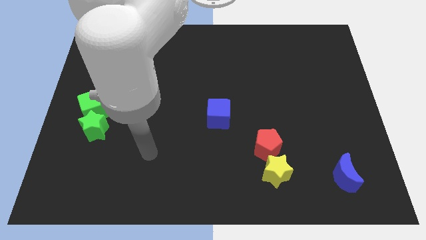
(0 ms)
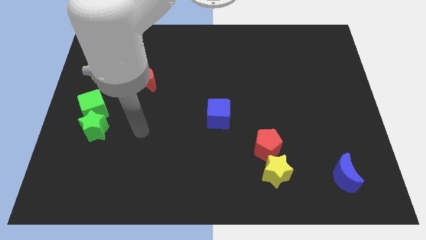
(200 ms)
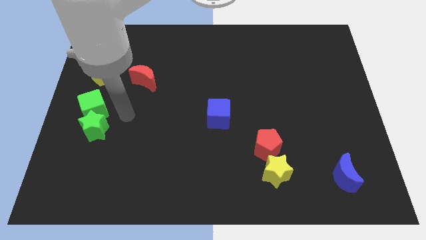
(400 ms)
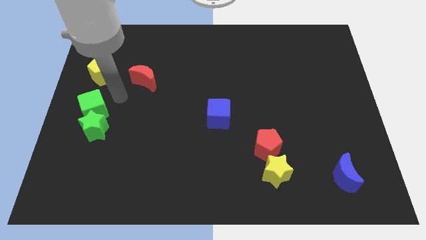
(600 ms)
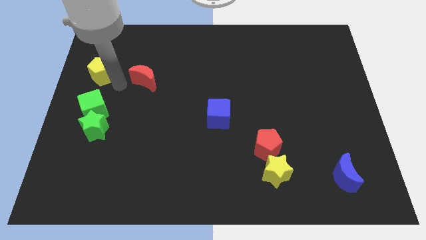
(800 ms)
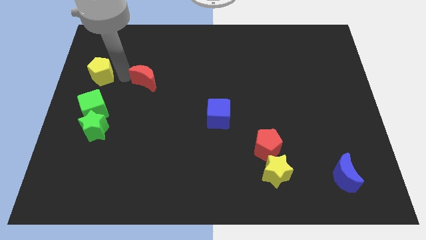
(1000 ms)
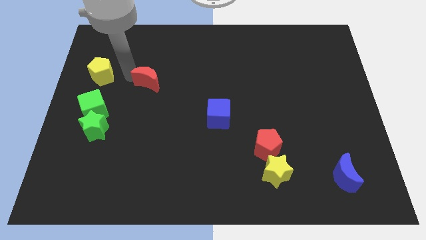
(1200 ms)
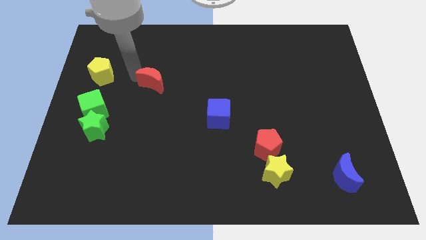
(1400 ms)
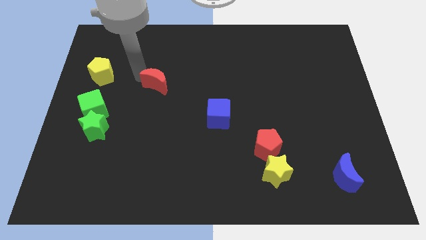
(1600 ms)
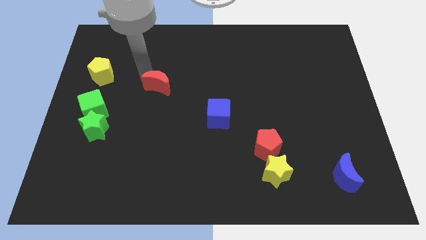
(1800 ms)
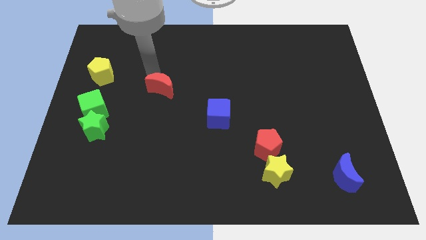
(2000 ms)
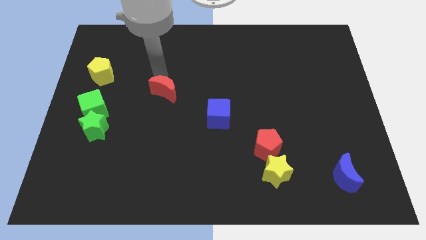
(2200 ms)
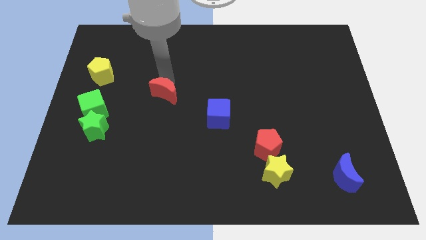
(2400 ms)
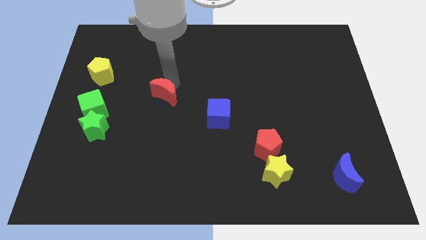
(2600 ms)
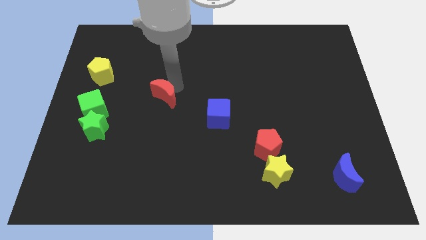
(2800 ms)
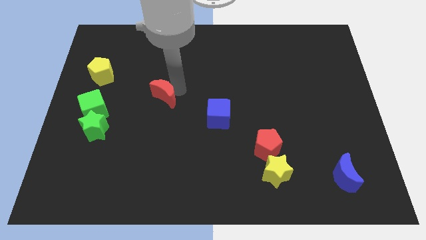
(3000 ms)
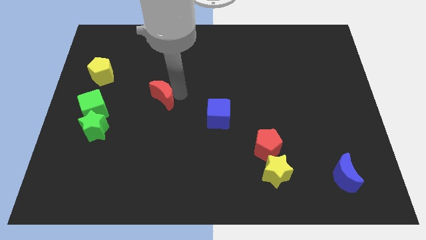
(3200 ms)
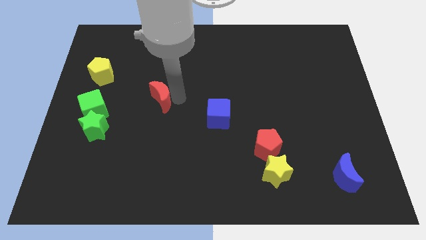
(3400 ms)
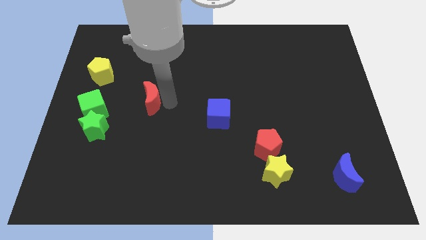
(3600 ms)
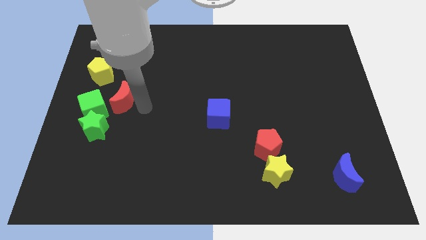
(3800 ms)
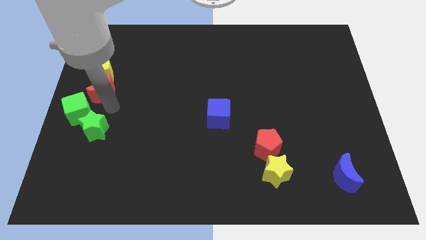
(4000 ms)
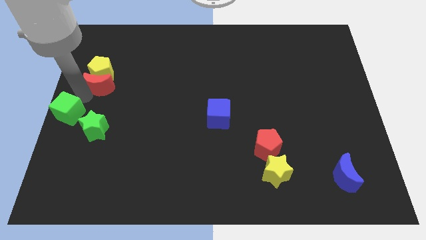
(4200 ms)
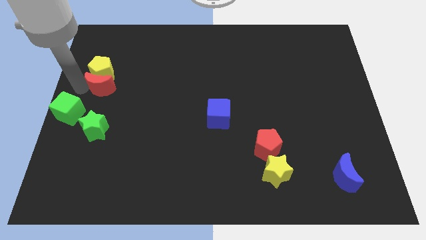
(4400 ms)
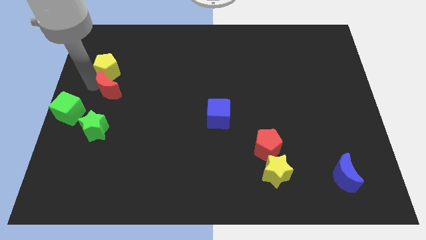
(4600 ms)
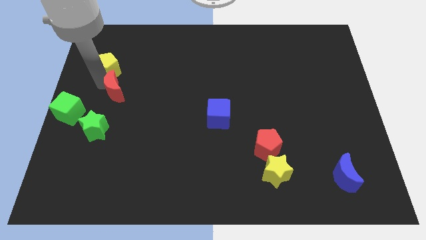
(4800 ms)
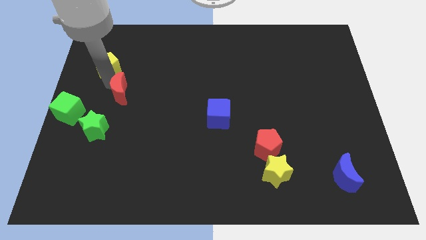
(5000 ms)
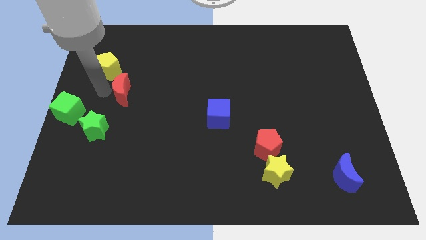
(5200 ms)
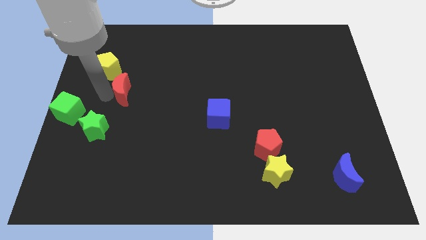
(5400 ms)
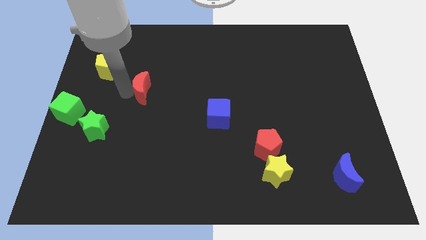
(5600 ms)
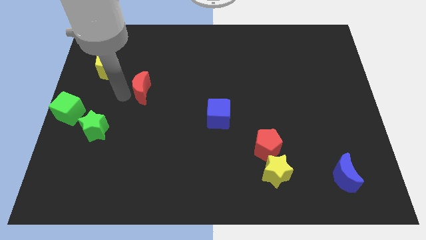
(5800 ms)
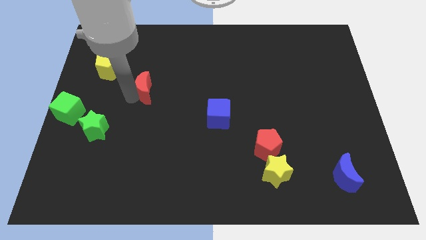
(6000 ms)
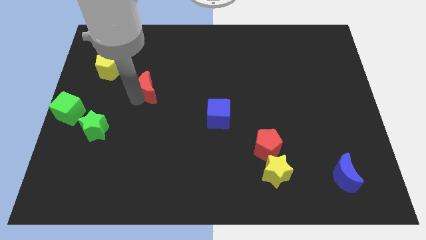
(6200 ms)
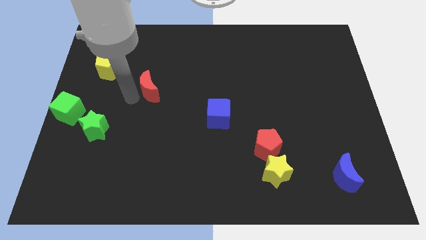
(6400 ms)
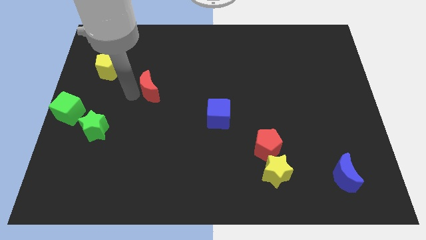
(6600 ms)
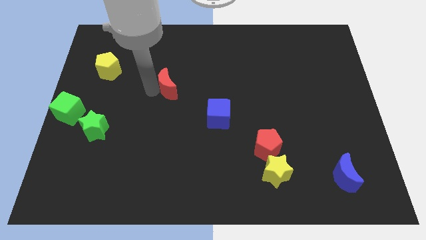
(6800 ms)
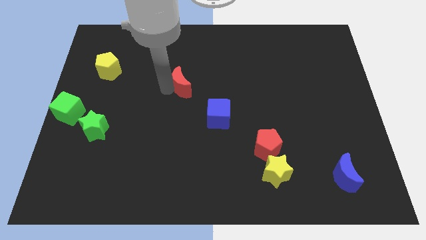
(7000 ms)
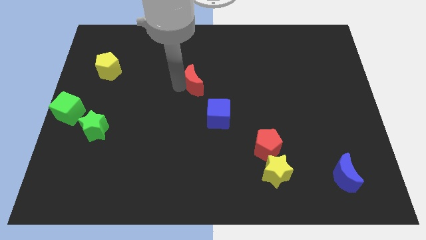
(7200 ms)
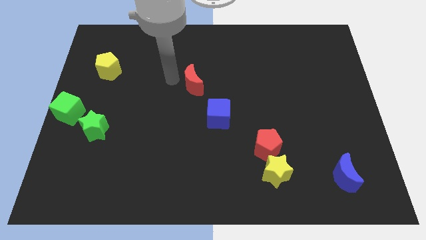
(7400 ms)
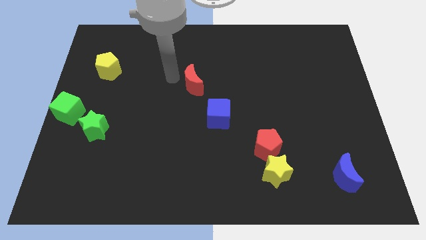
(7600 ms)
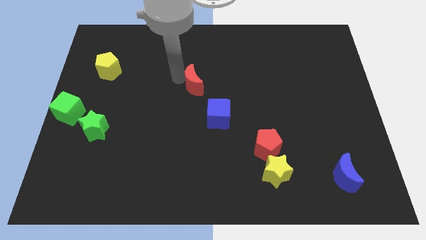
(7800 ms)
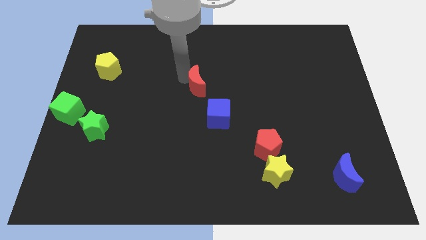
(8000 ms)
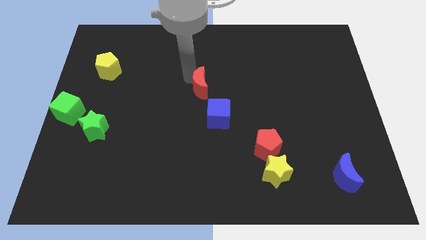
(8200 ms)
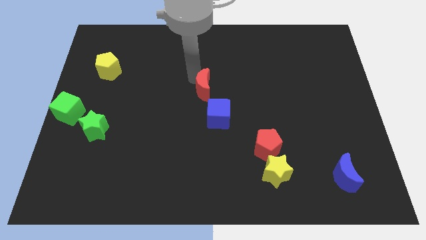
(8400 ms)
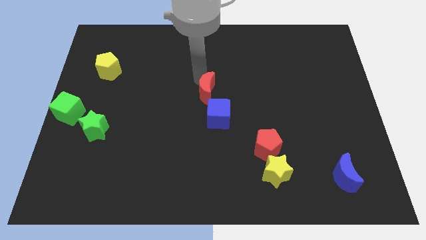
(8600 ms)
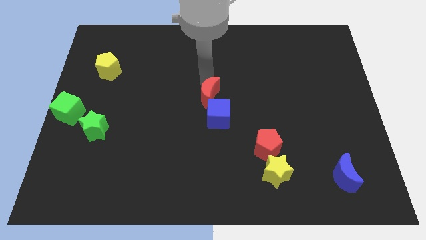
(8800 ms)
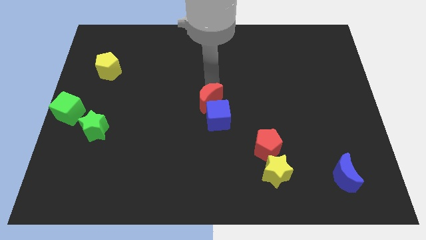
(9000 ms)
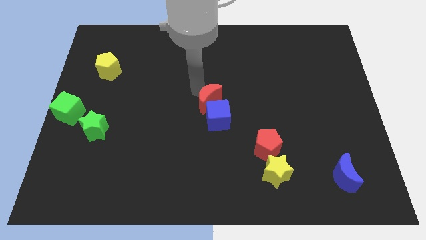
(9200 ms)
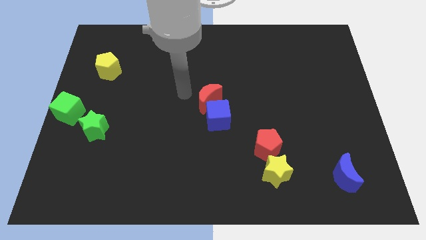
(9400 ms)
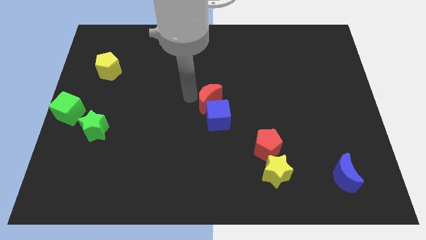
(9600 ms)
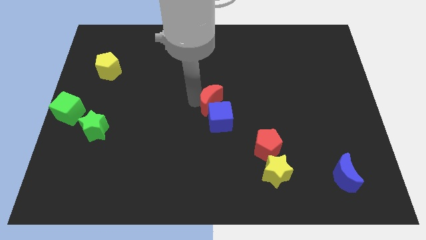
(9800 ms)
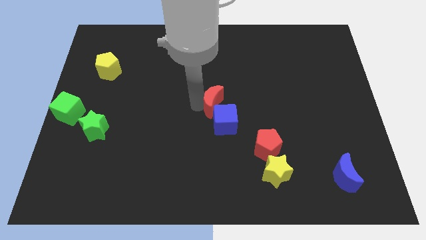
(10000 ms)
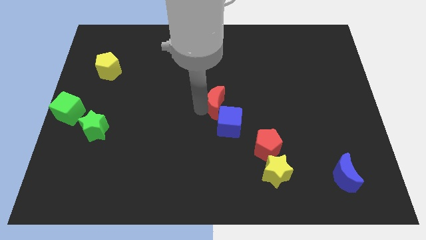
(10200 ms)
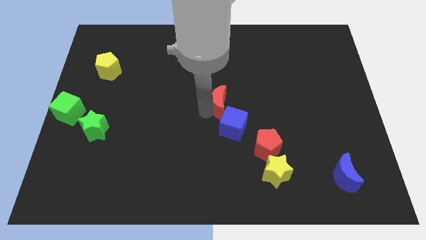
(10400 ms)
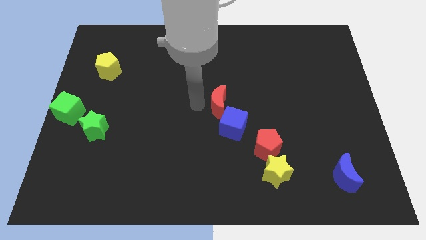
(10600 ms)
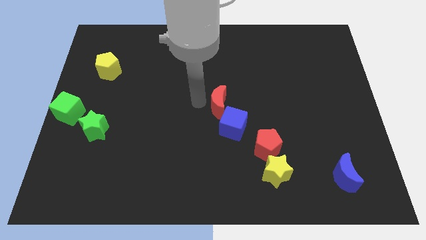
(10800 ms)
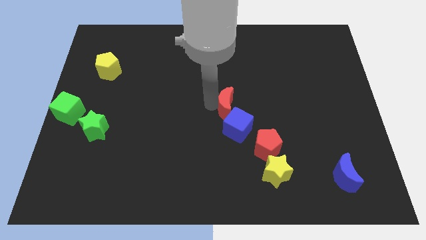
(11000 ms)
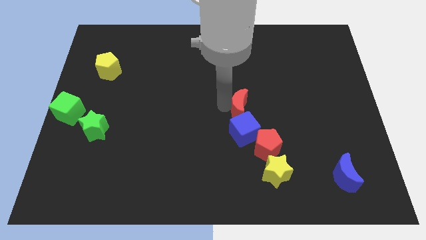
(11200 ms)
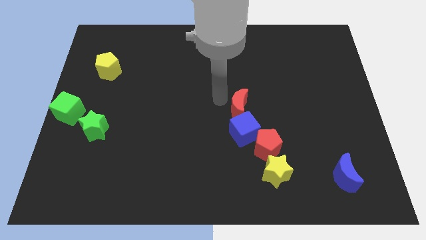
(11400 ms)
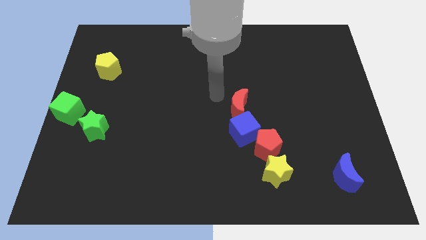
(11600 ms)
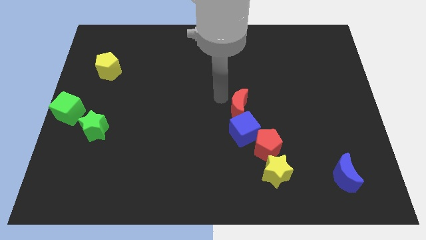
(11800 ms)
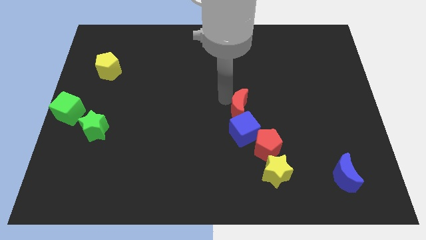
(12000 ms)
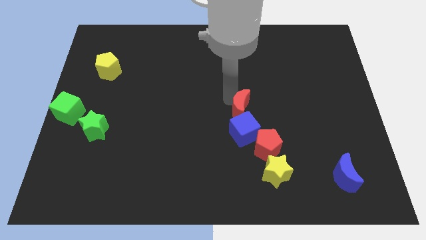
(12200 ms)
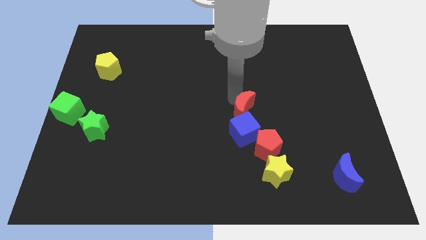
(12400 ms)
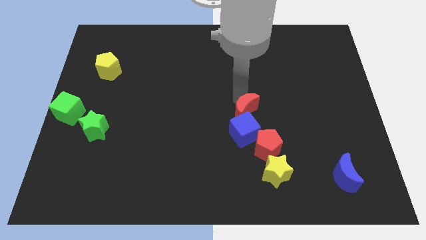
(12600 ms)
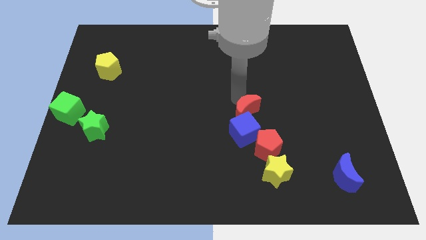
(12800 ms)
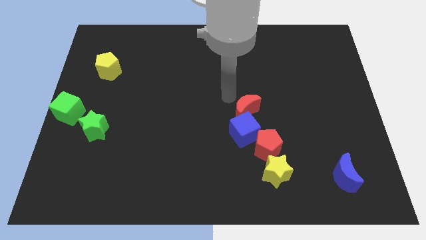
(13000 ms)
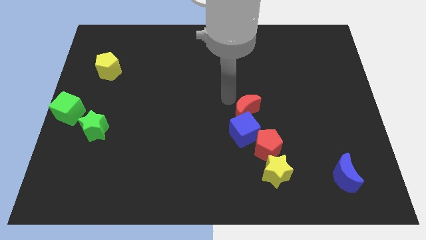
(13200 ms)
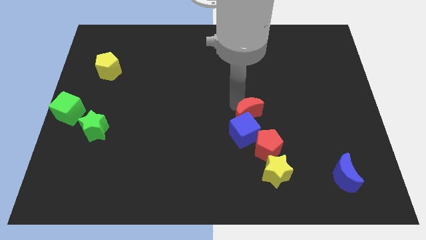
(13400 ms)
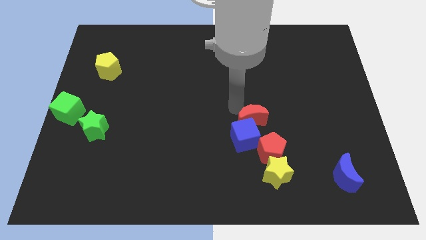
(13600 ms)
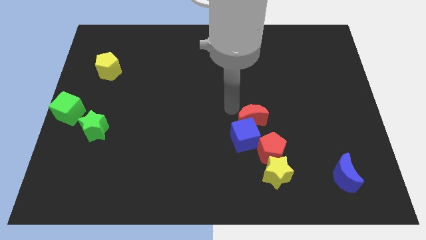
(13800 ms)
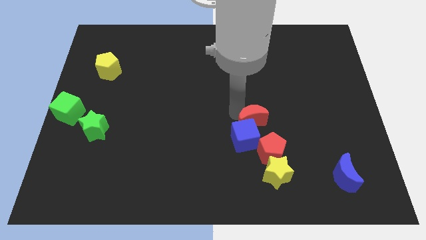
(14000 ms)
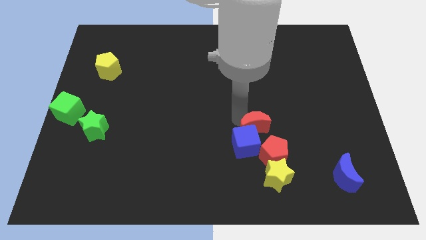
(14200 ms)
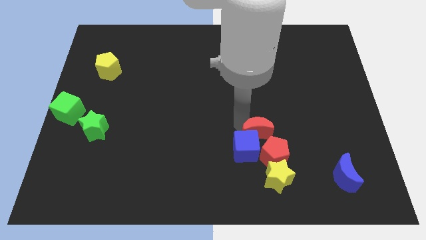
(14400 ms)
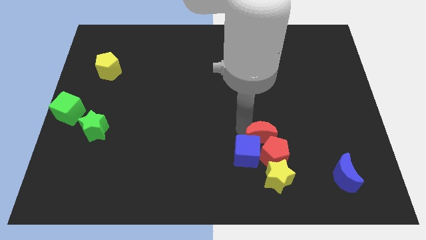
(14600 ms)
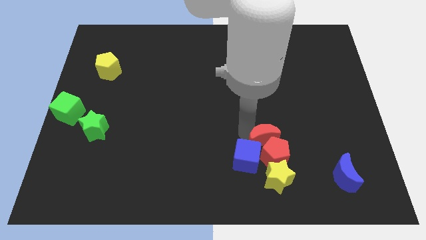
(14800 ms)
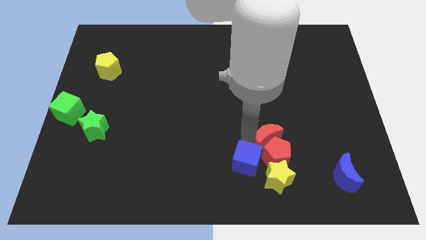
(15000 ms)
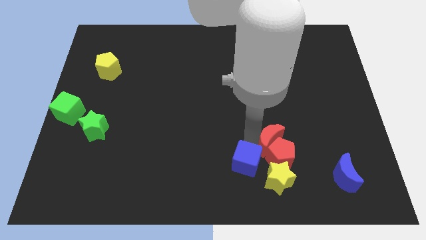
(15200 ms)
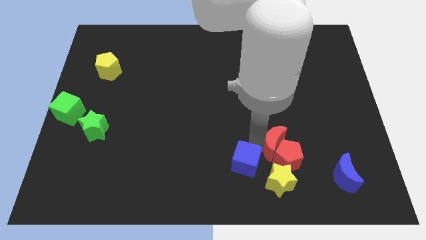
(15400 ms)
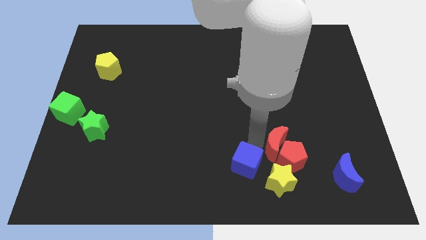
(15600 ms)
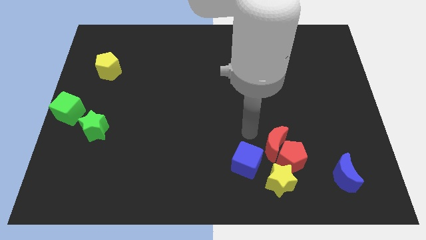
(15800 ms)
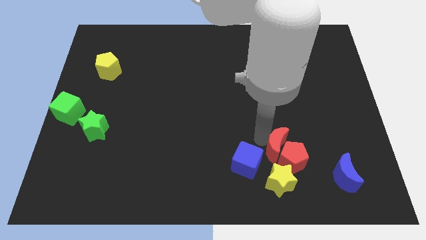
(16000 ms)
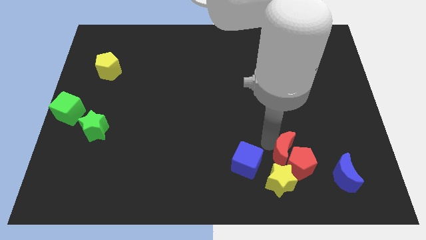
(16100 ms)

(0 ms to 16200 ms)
put the red moon to the top right of the yellow star
